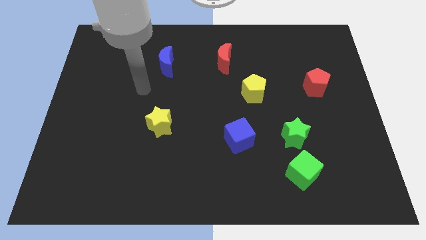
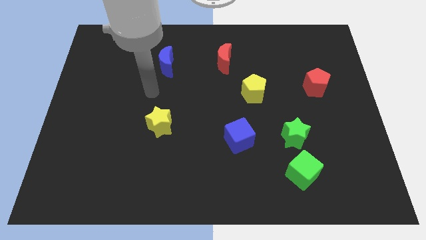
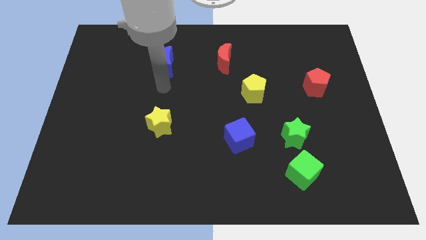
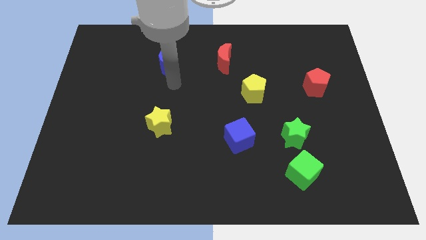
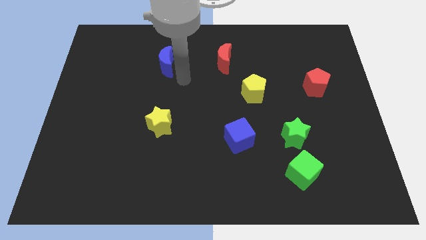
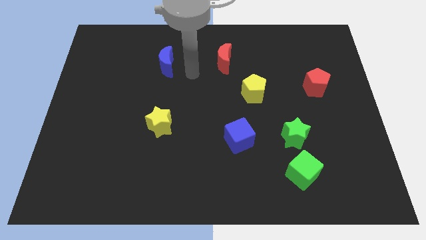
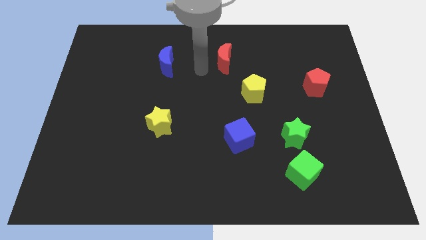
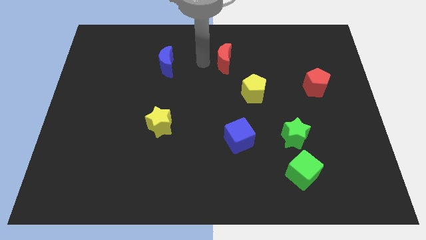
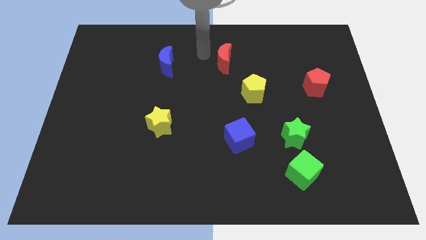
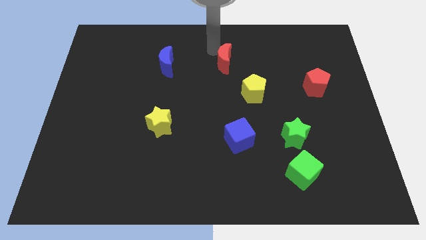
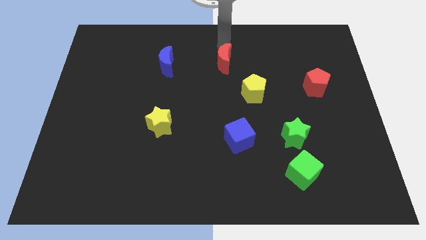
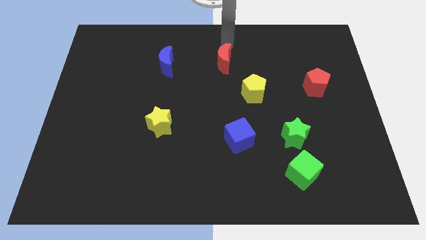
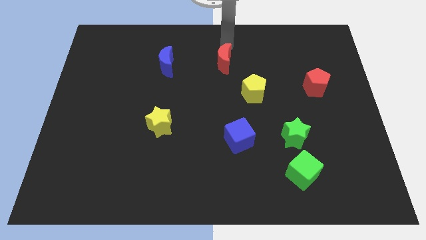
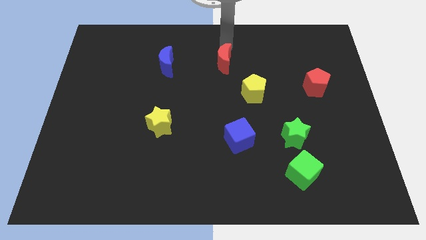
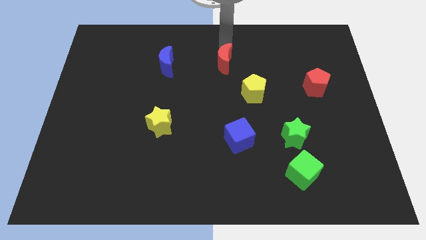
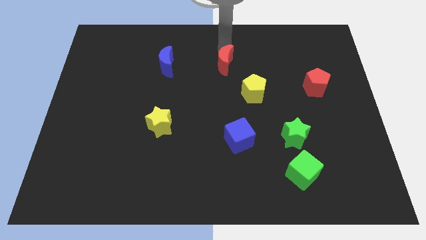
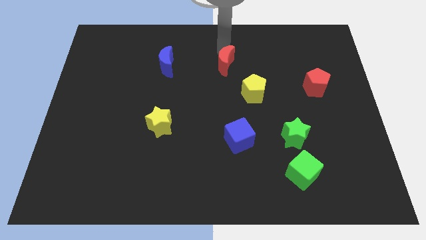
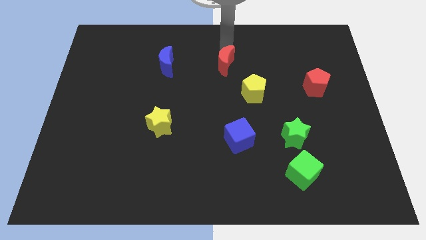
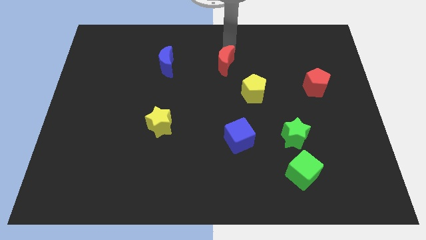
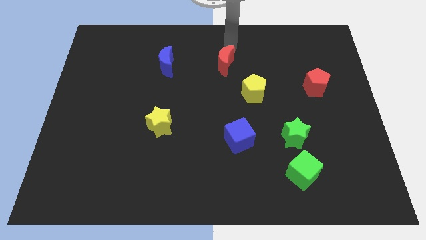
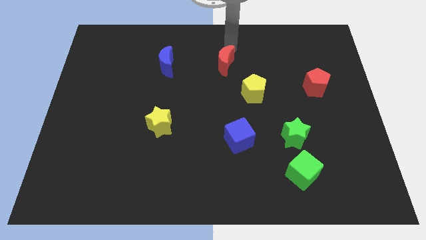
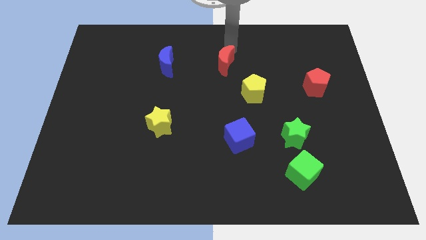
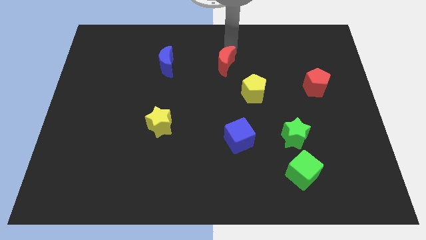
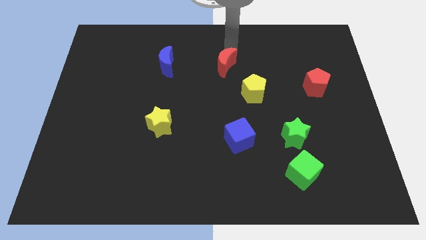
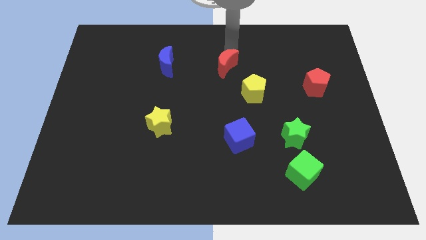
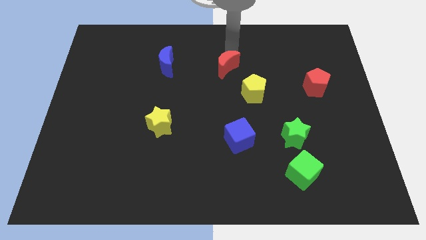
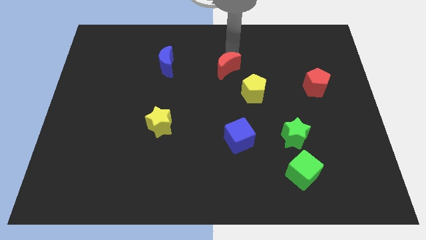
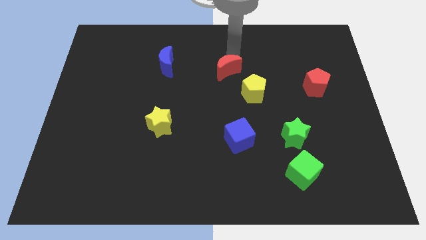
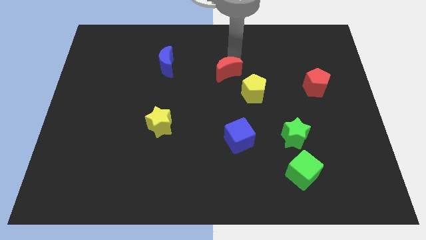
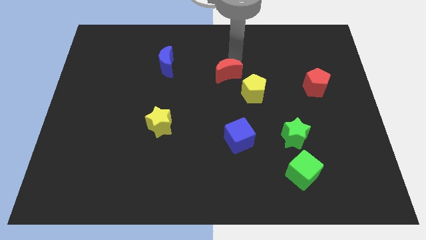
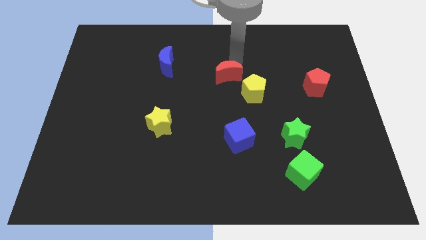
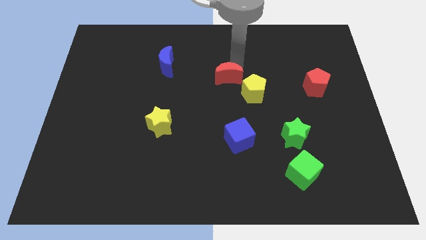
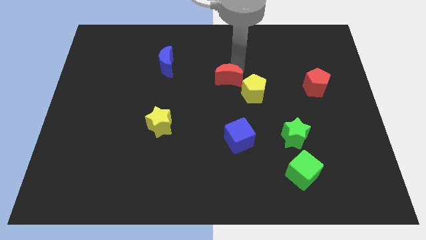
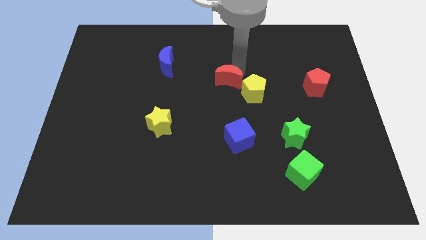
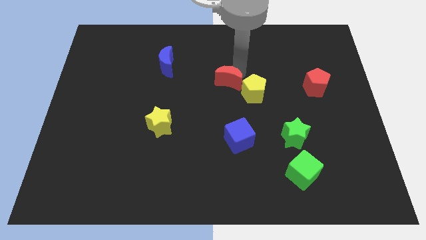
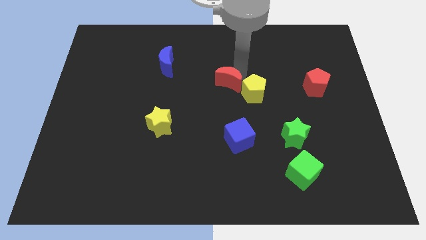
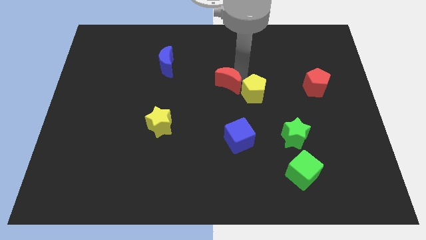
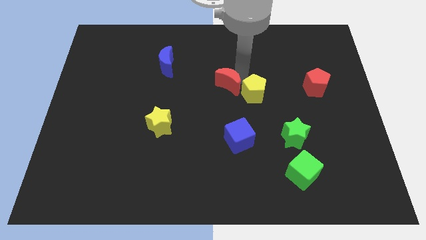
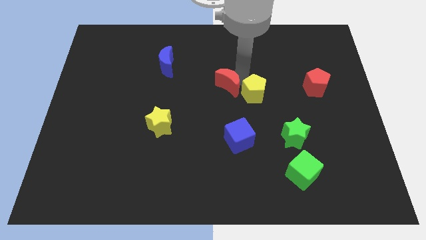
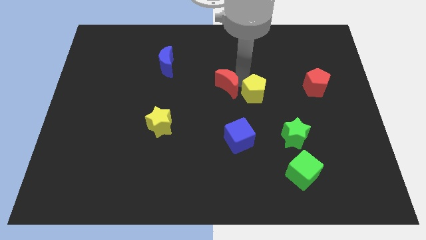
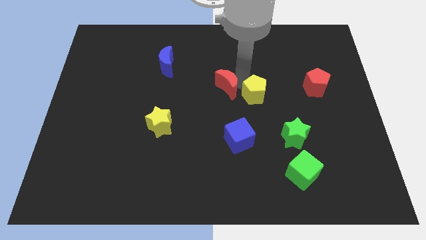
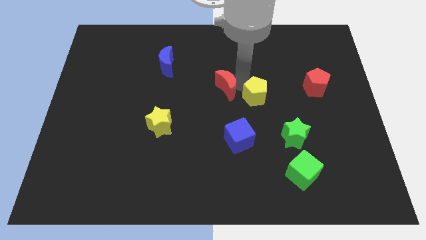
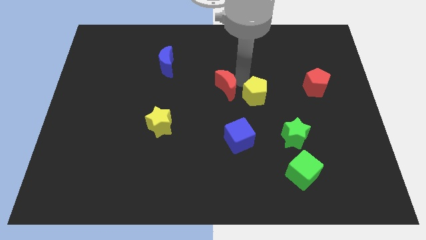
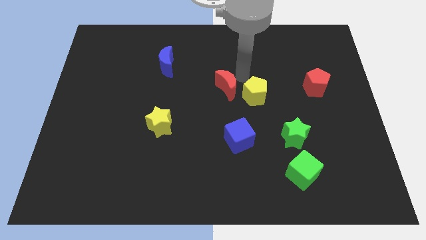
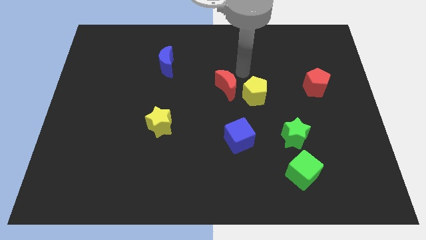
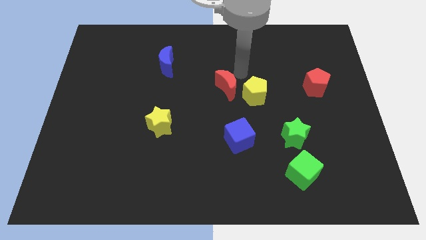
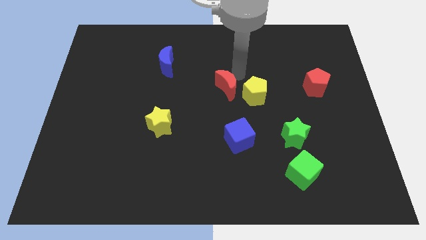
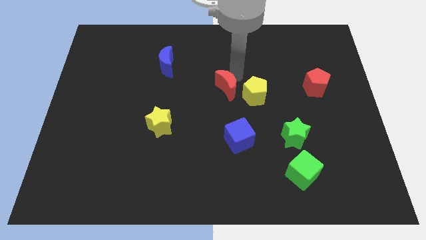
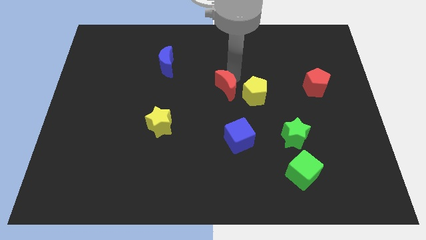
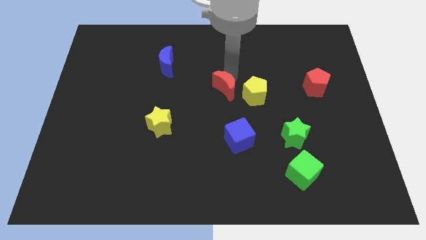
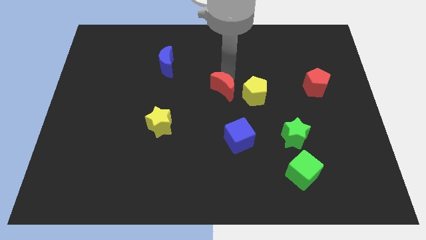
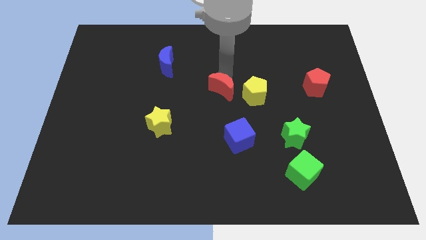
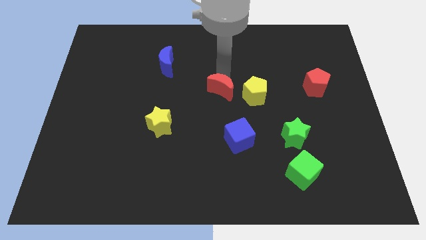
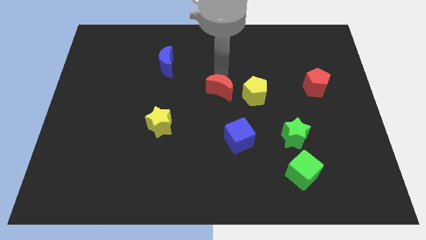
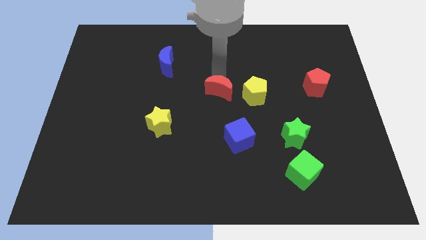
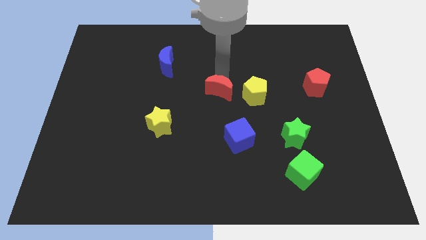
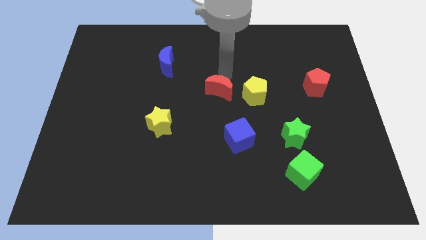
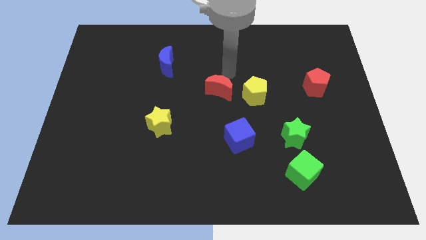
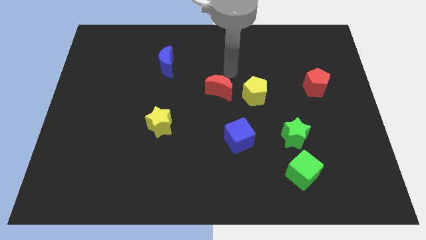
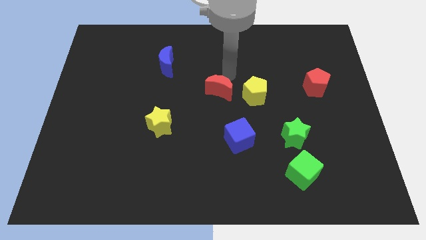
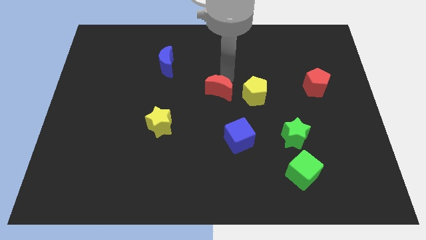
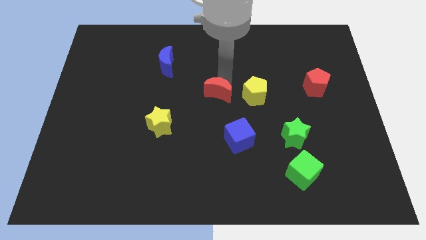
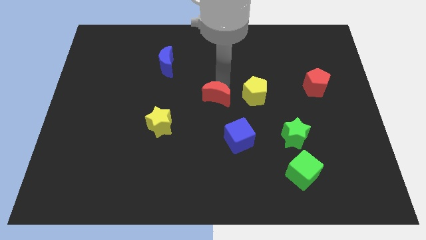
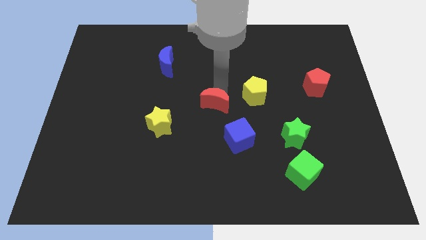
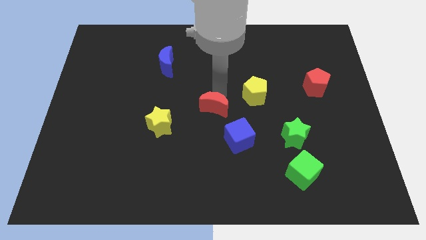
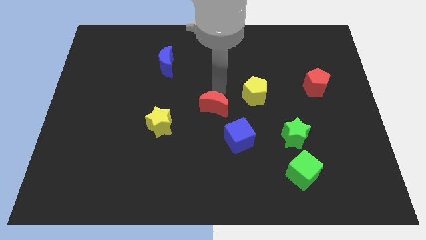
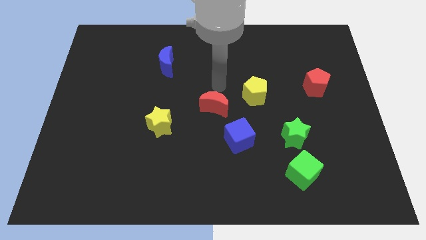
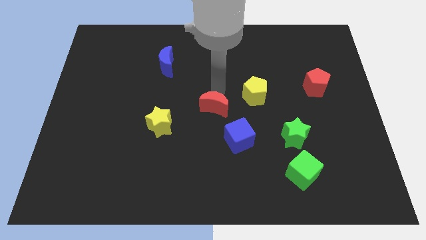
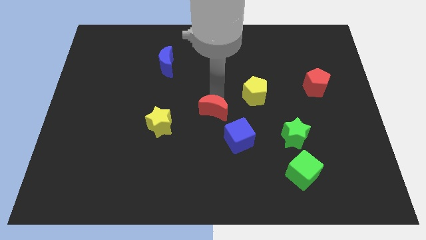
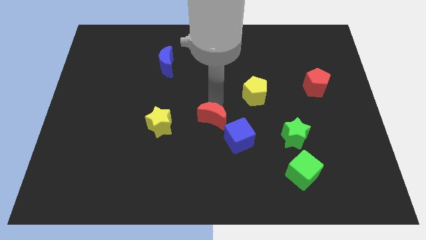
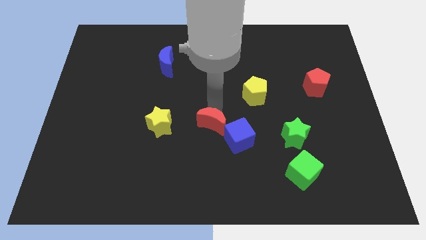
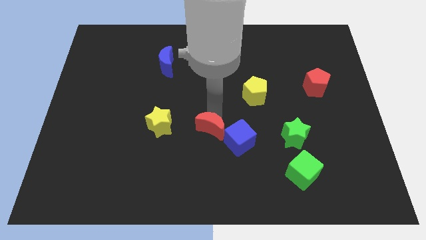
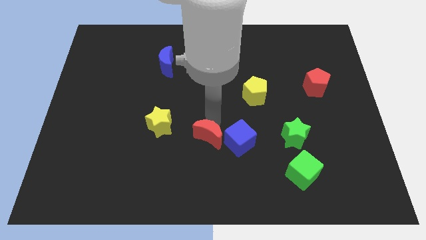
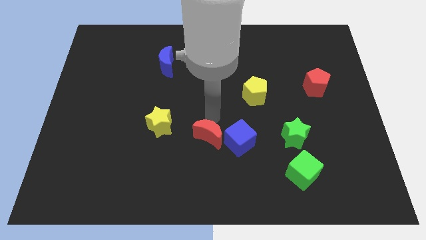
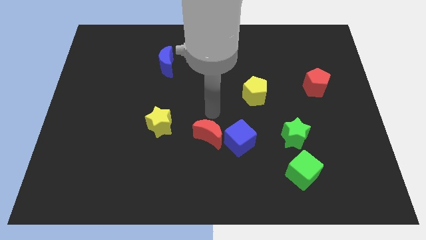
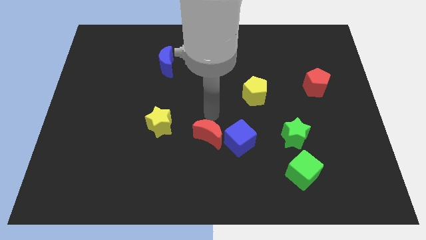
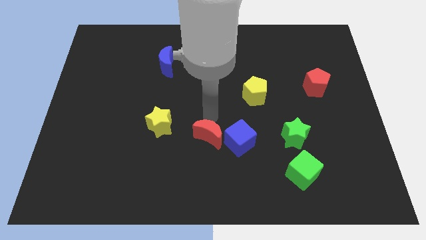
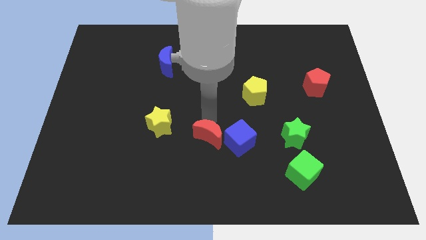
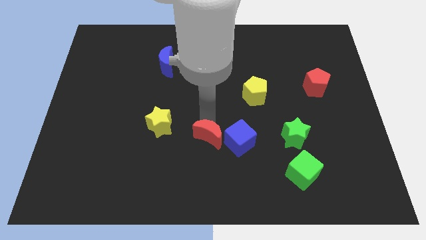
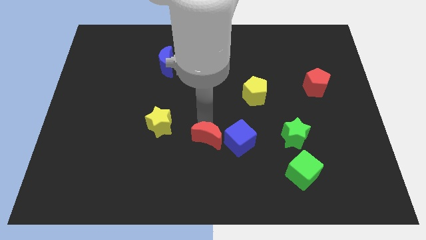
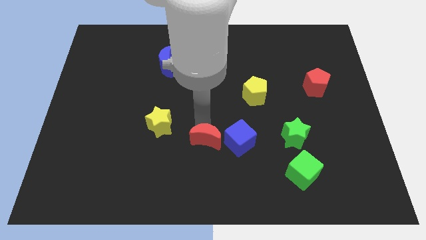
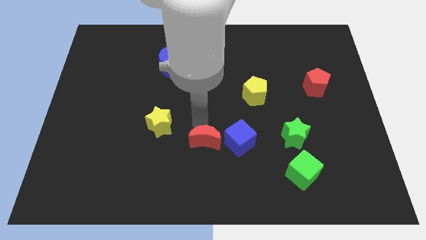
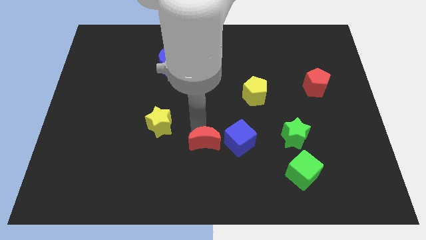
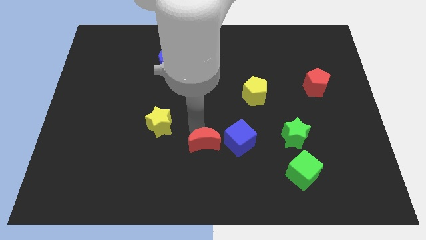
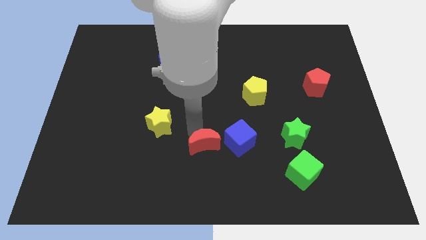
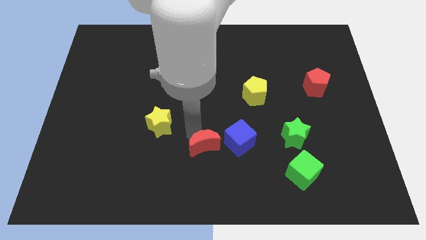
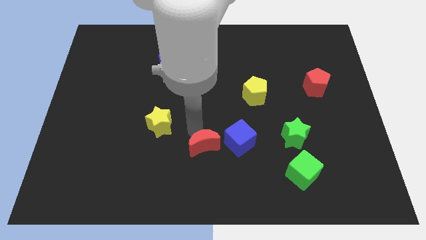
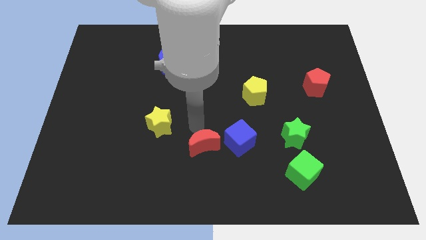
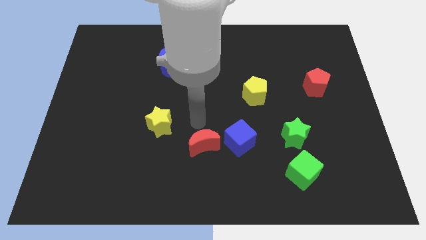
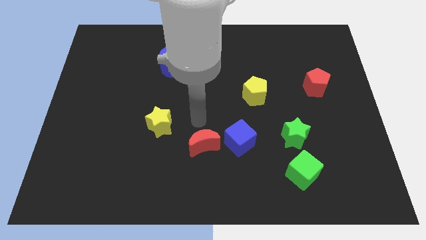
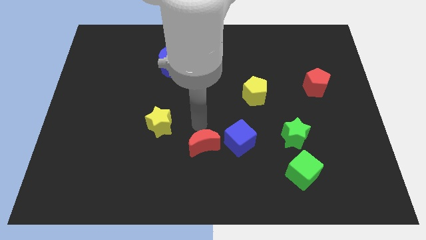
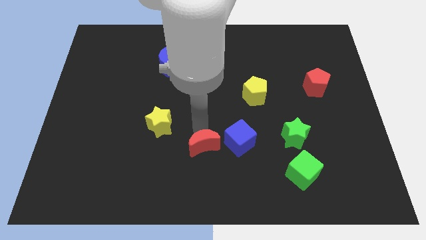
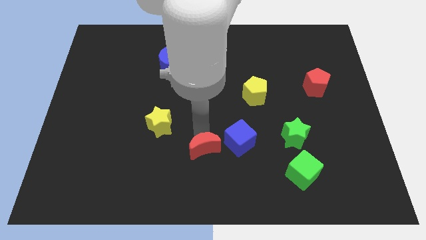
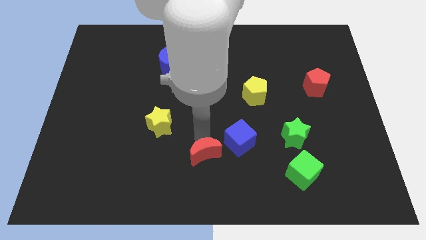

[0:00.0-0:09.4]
move the red moon to the bottom side
